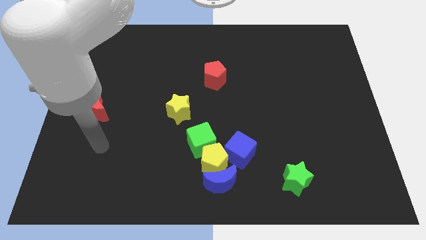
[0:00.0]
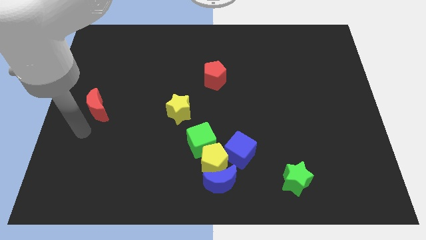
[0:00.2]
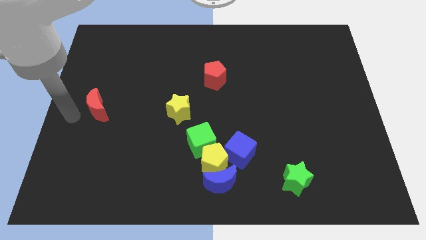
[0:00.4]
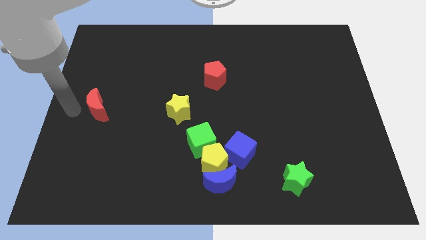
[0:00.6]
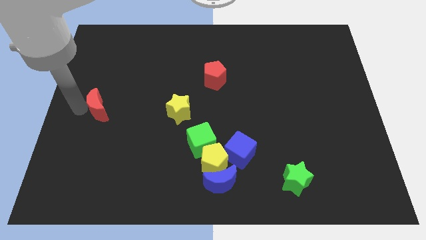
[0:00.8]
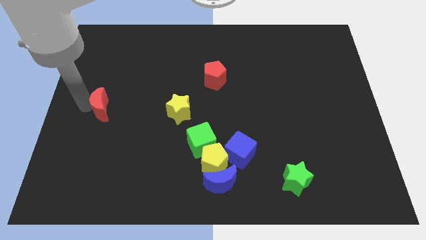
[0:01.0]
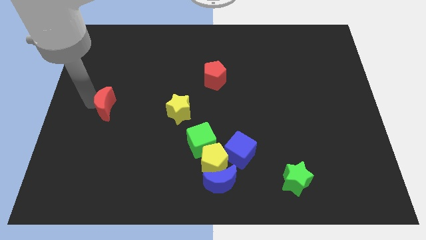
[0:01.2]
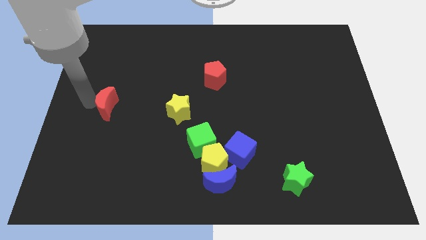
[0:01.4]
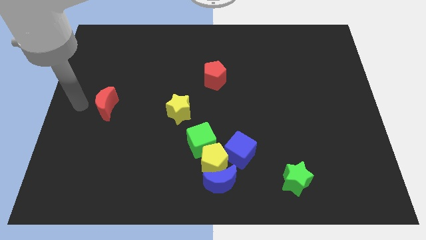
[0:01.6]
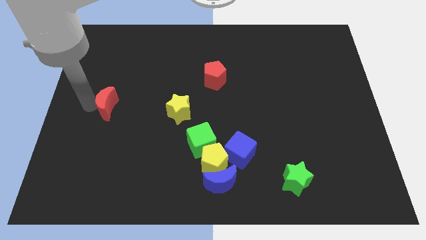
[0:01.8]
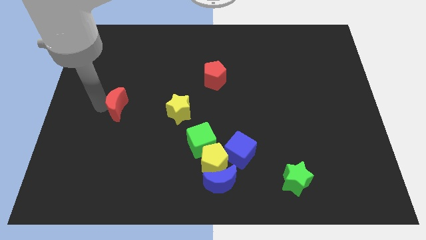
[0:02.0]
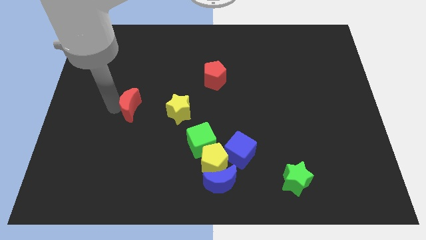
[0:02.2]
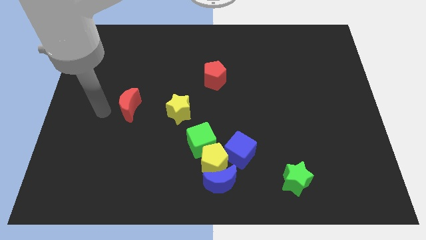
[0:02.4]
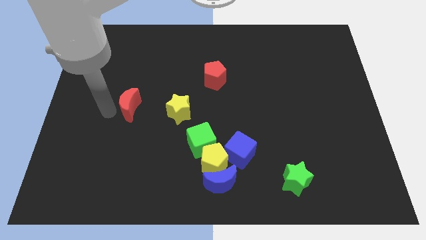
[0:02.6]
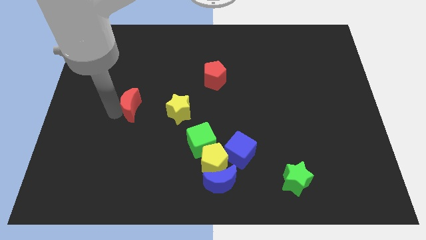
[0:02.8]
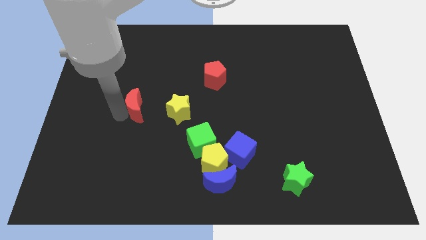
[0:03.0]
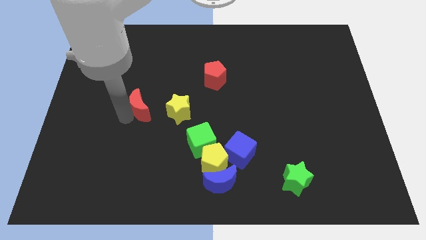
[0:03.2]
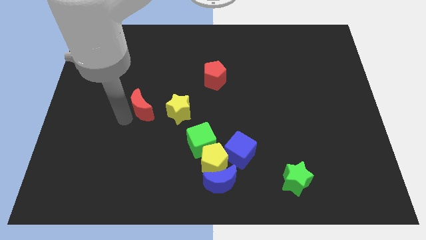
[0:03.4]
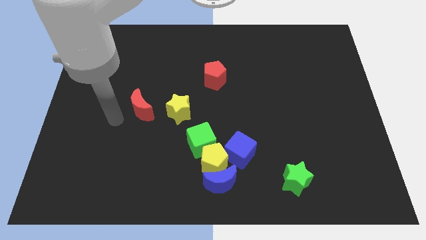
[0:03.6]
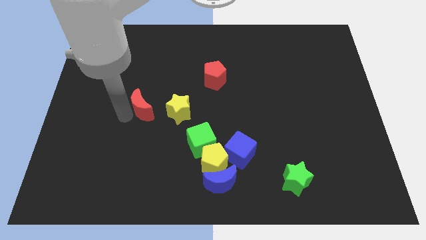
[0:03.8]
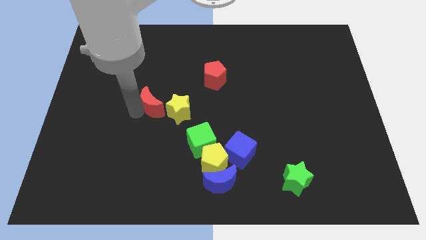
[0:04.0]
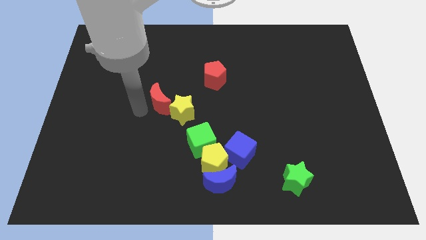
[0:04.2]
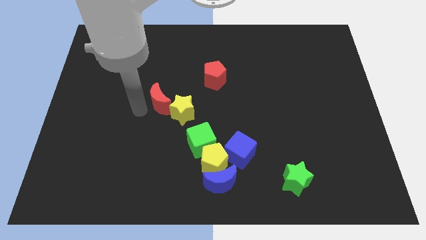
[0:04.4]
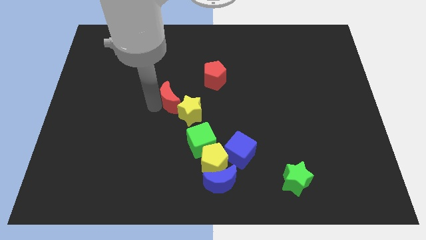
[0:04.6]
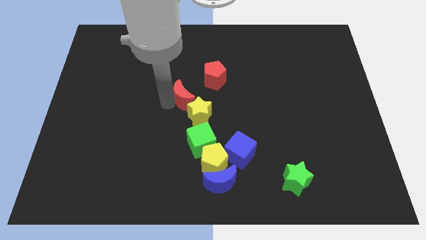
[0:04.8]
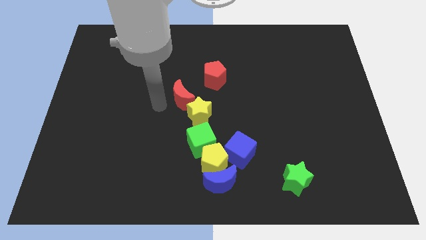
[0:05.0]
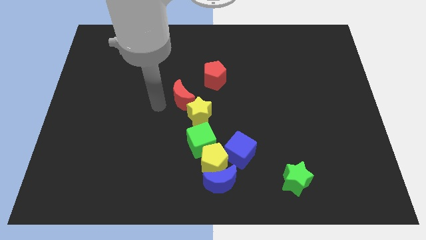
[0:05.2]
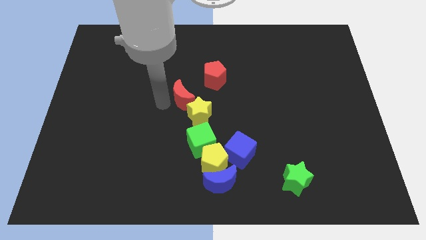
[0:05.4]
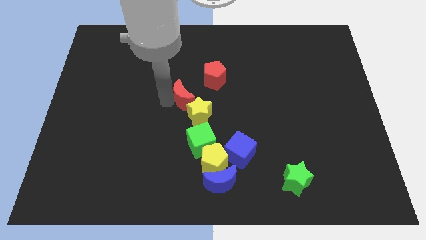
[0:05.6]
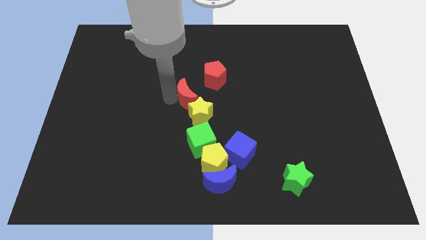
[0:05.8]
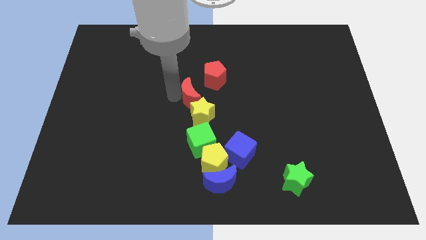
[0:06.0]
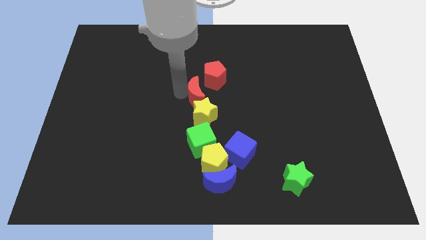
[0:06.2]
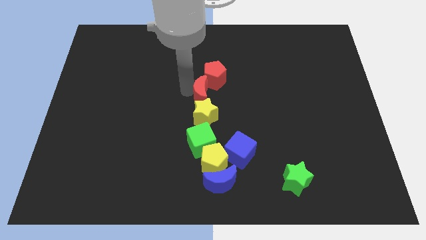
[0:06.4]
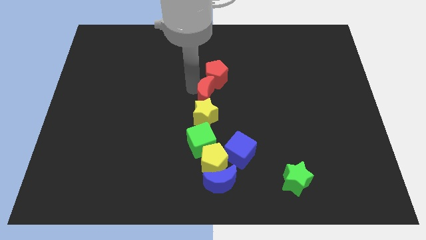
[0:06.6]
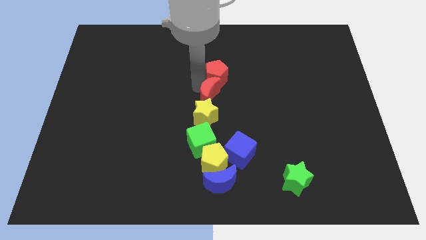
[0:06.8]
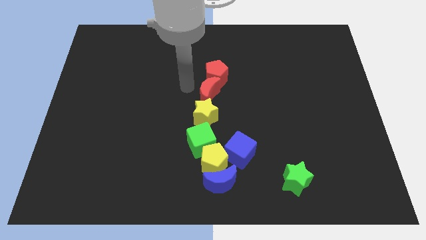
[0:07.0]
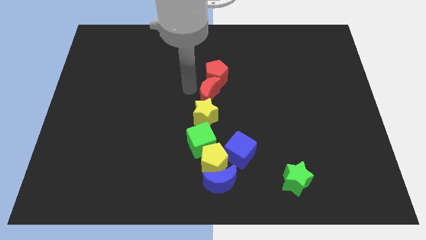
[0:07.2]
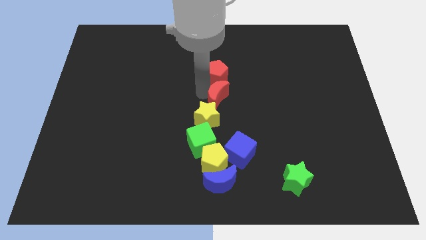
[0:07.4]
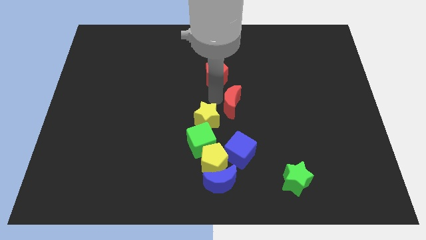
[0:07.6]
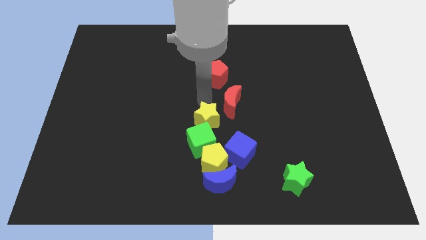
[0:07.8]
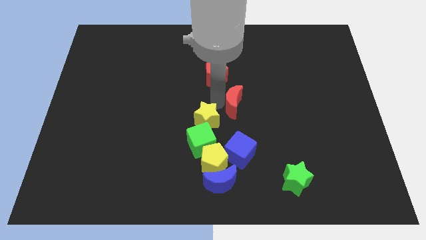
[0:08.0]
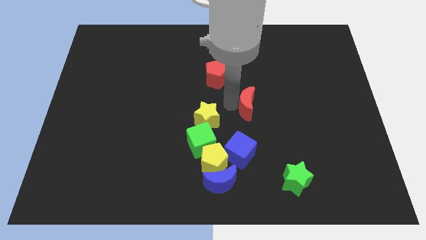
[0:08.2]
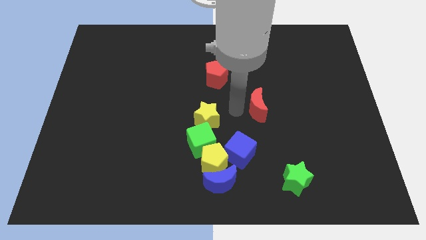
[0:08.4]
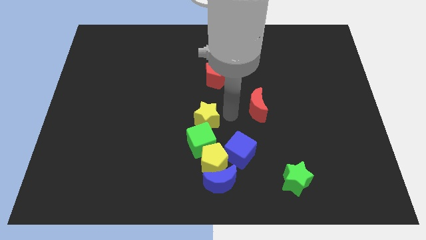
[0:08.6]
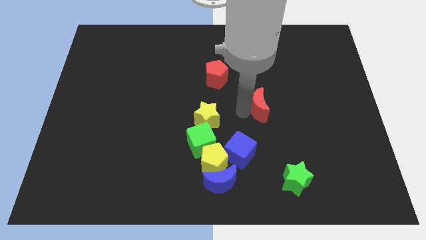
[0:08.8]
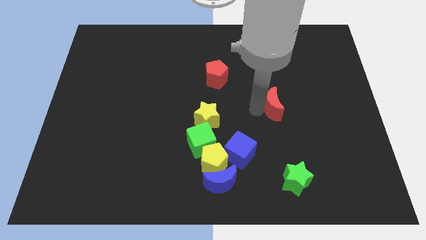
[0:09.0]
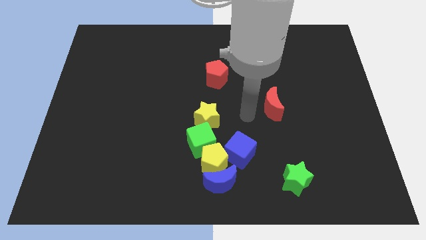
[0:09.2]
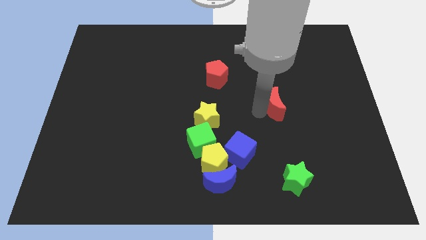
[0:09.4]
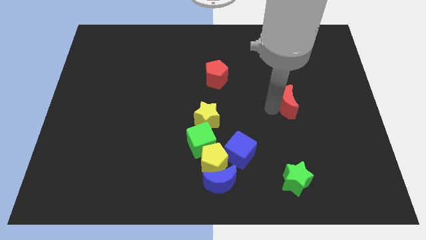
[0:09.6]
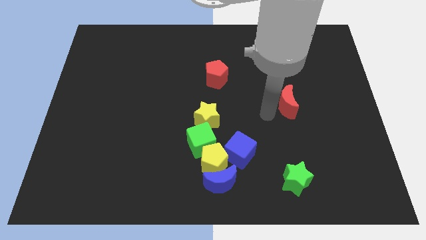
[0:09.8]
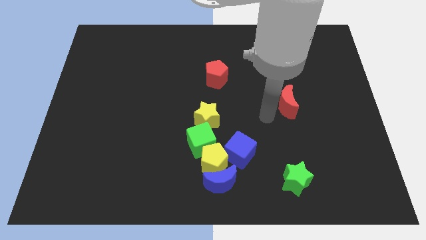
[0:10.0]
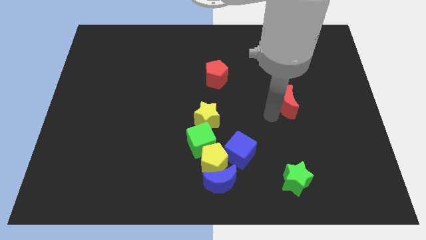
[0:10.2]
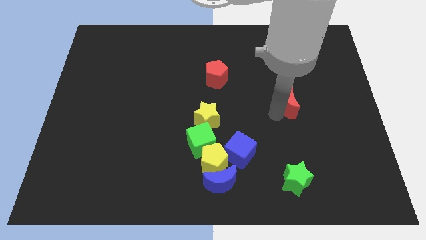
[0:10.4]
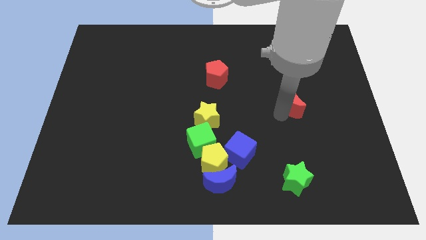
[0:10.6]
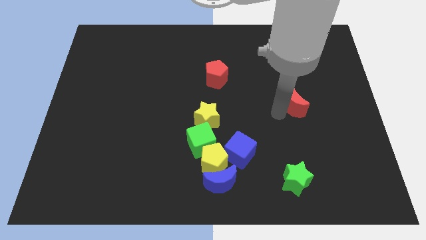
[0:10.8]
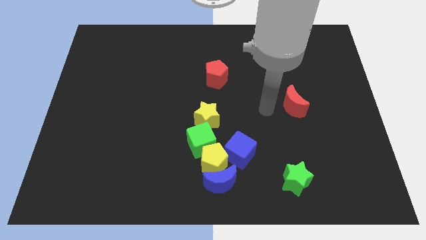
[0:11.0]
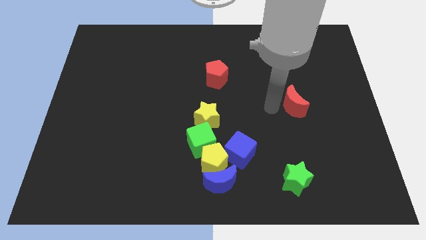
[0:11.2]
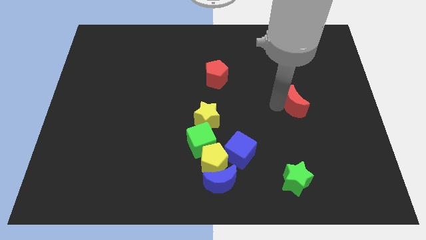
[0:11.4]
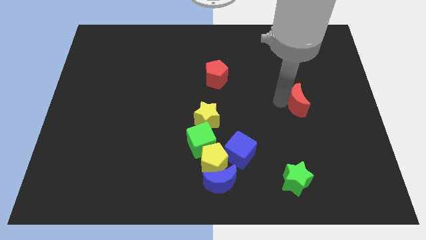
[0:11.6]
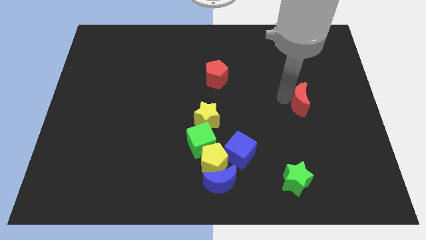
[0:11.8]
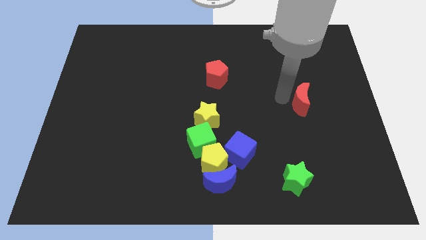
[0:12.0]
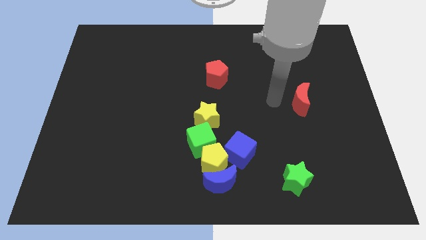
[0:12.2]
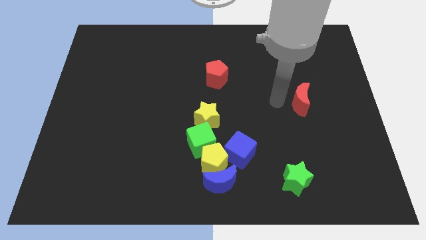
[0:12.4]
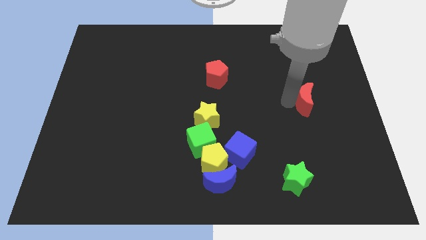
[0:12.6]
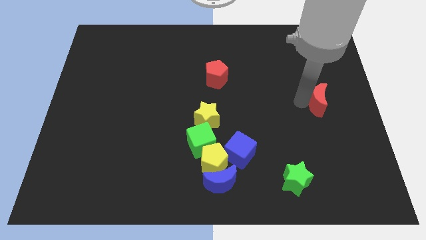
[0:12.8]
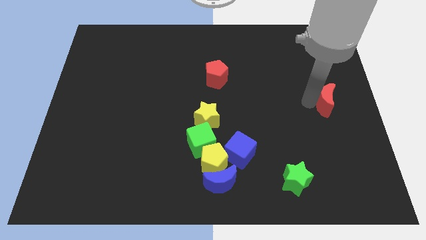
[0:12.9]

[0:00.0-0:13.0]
push the red moon to the right side
